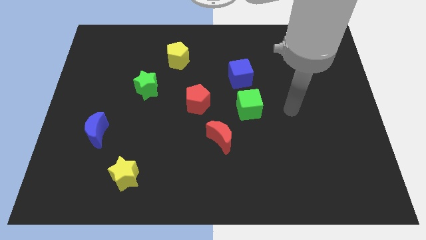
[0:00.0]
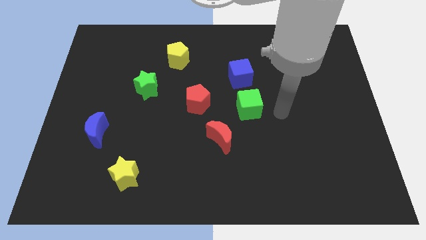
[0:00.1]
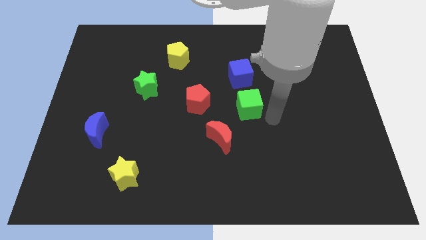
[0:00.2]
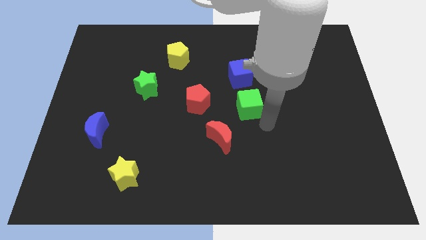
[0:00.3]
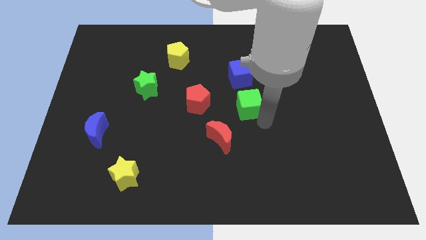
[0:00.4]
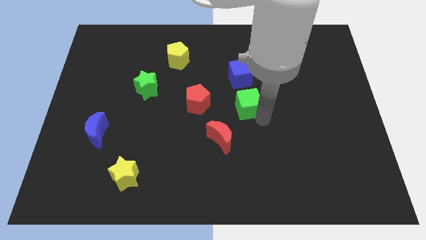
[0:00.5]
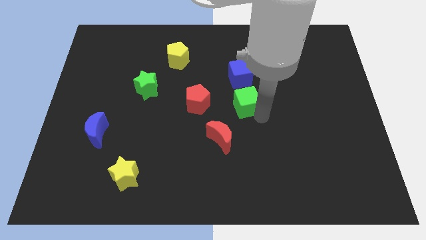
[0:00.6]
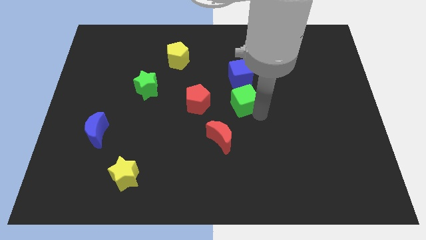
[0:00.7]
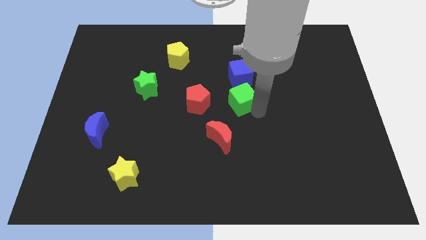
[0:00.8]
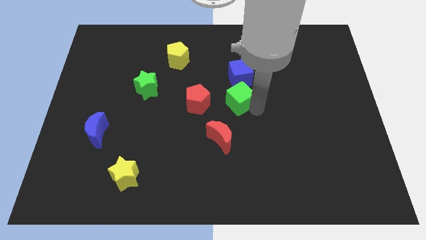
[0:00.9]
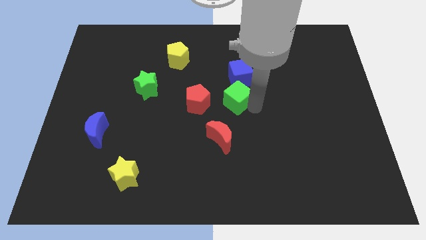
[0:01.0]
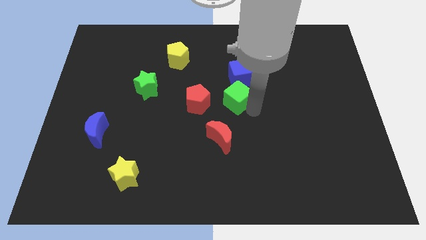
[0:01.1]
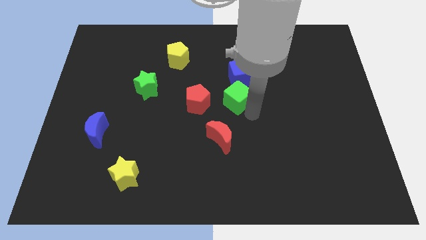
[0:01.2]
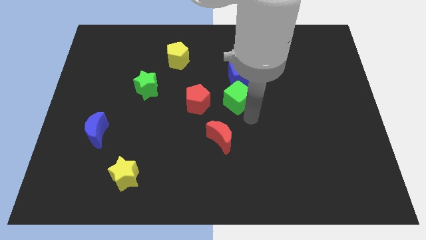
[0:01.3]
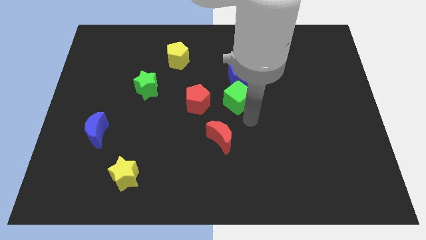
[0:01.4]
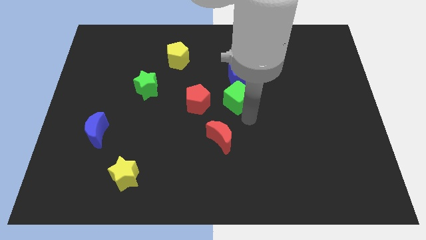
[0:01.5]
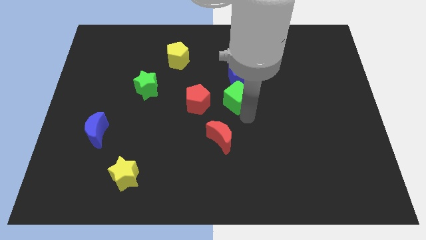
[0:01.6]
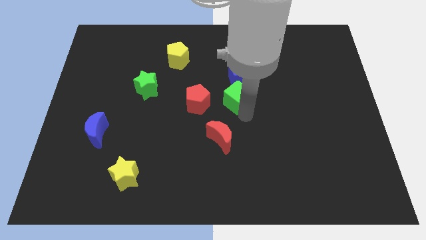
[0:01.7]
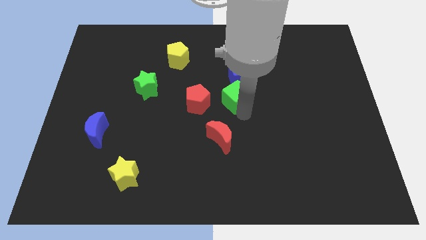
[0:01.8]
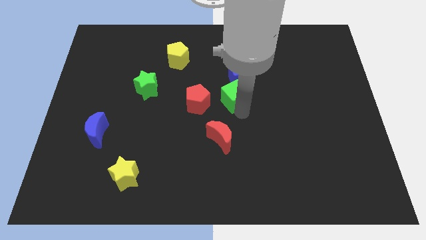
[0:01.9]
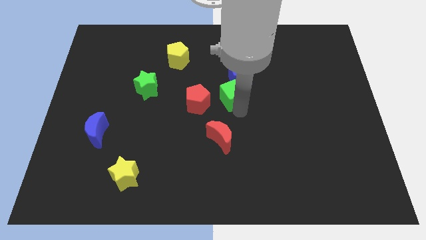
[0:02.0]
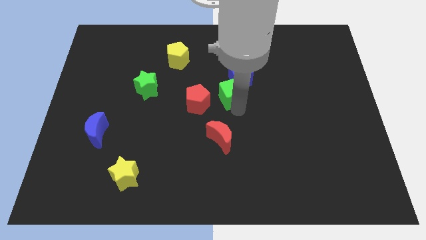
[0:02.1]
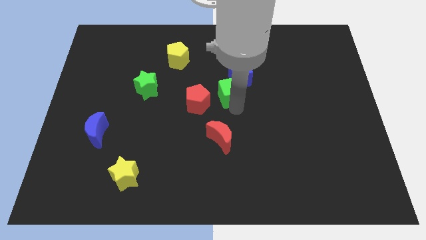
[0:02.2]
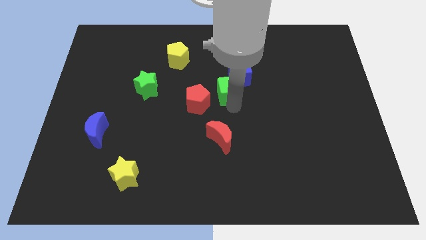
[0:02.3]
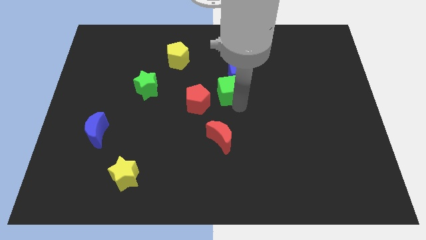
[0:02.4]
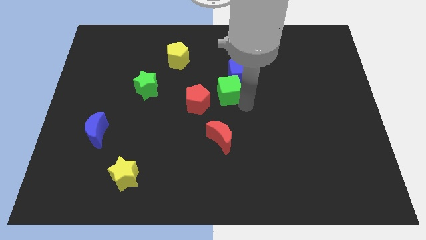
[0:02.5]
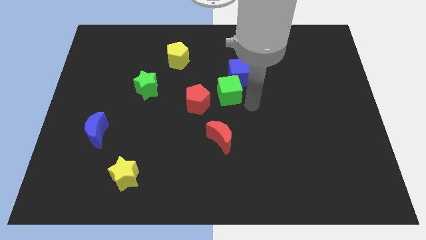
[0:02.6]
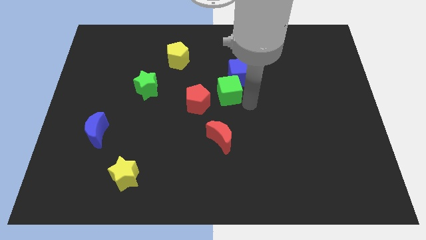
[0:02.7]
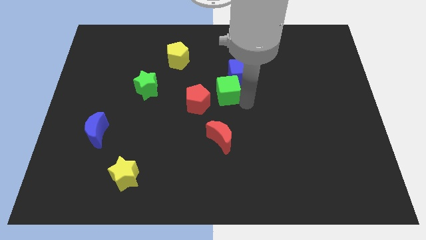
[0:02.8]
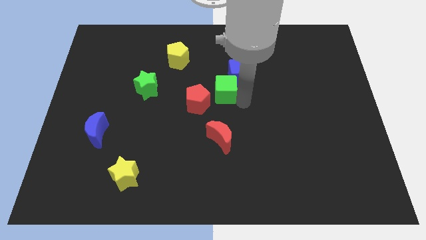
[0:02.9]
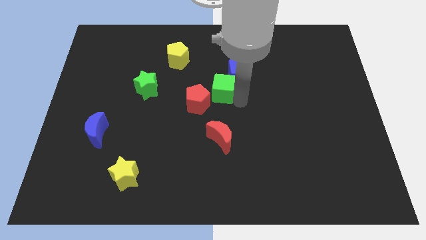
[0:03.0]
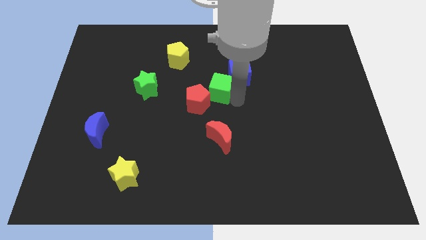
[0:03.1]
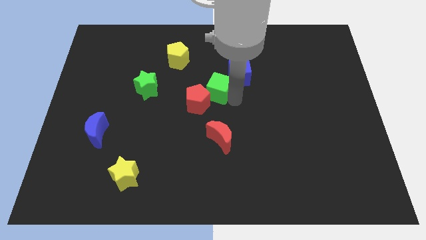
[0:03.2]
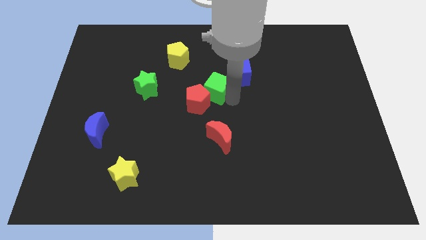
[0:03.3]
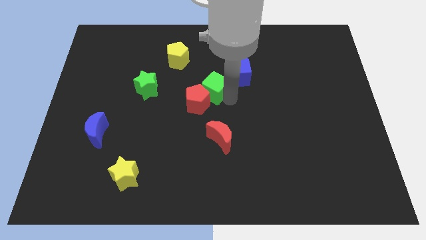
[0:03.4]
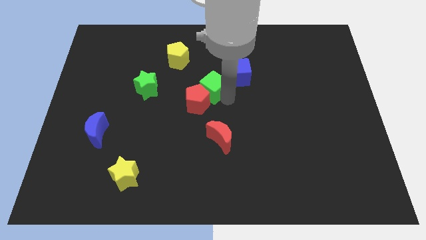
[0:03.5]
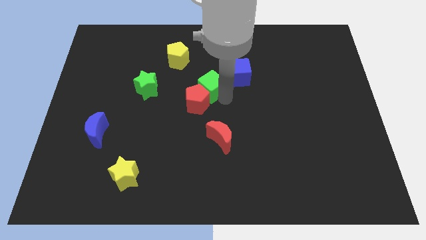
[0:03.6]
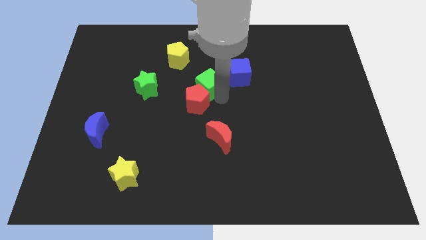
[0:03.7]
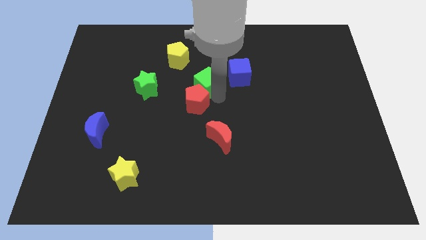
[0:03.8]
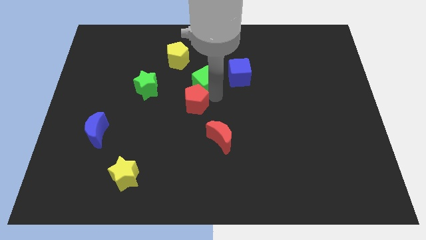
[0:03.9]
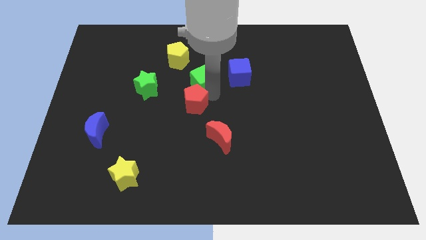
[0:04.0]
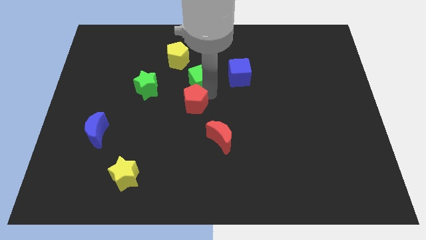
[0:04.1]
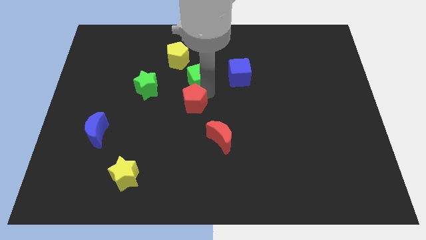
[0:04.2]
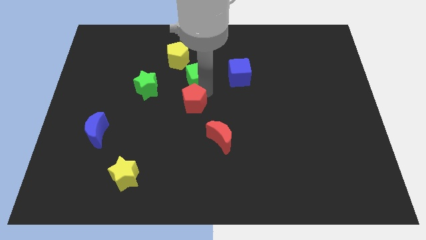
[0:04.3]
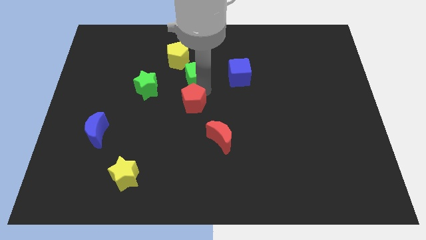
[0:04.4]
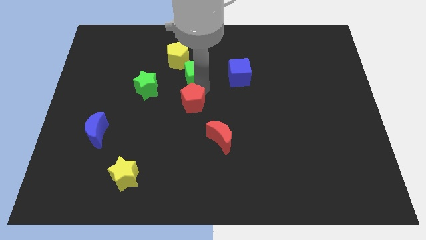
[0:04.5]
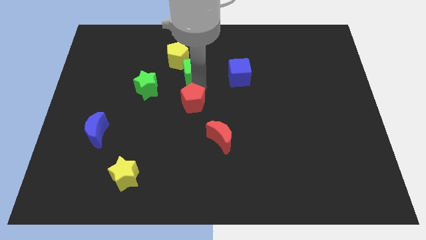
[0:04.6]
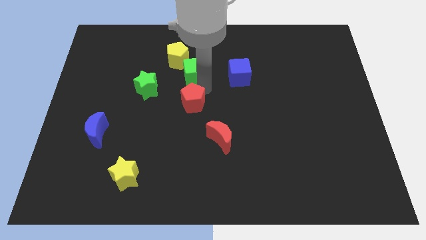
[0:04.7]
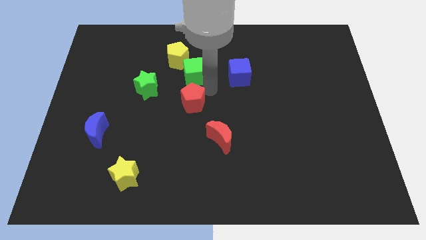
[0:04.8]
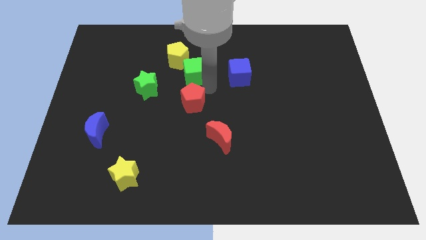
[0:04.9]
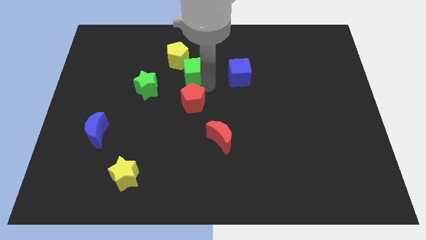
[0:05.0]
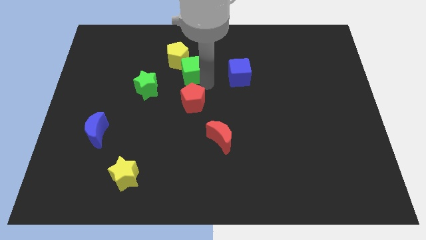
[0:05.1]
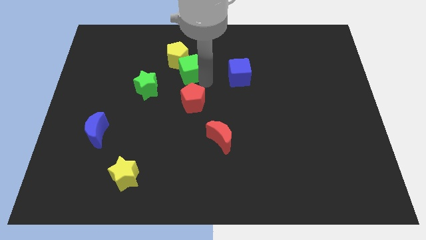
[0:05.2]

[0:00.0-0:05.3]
put the green cube next to the yellow pentagon

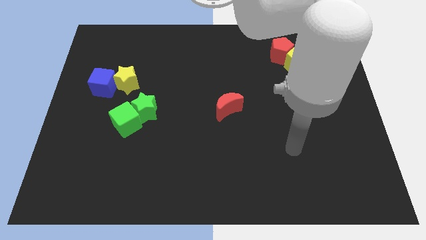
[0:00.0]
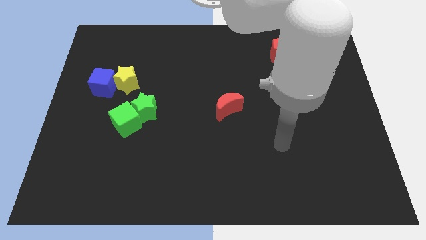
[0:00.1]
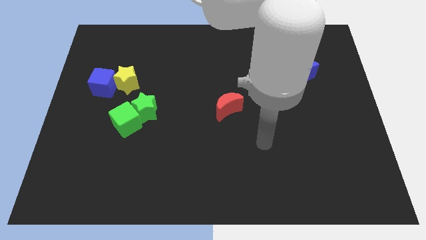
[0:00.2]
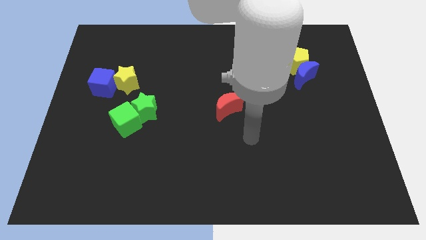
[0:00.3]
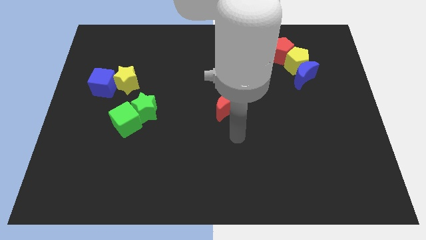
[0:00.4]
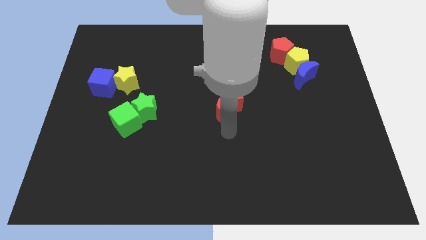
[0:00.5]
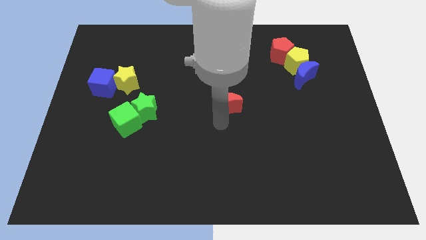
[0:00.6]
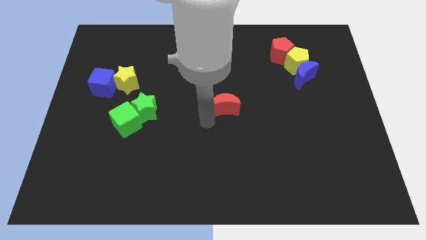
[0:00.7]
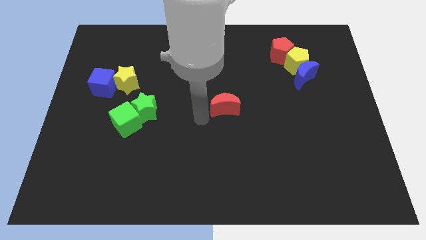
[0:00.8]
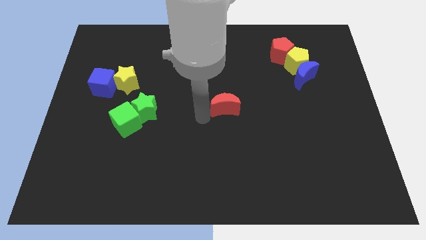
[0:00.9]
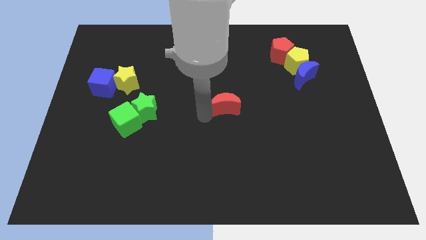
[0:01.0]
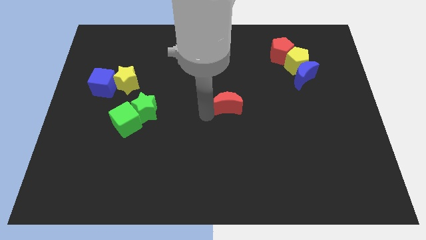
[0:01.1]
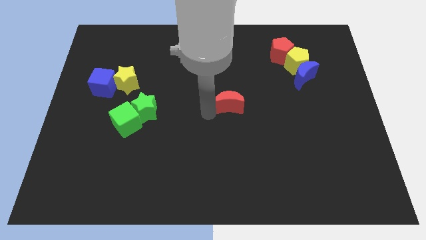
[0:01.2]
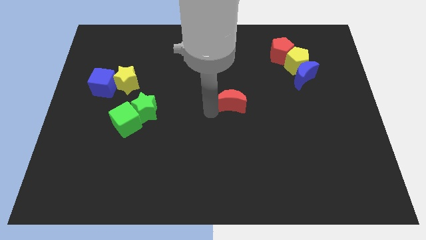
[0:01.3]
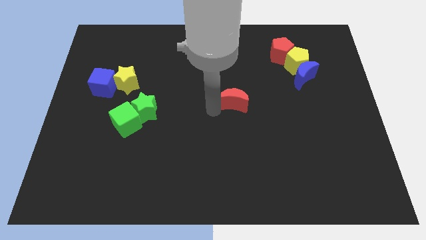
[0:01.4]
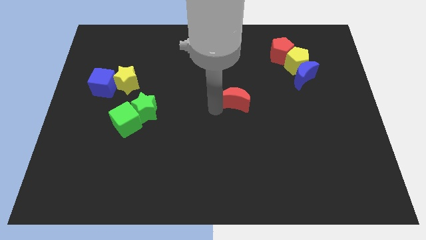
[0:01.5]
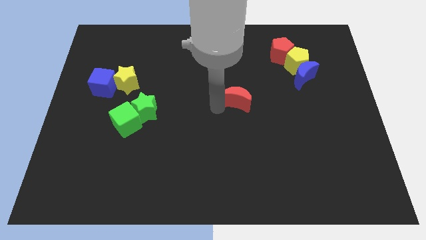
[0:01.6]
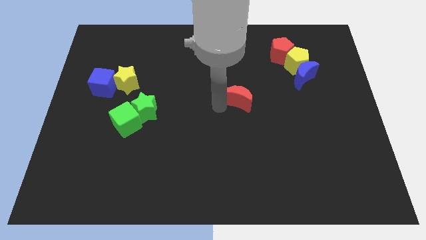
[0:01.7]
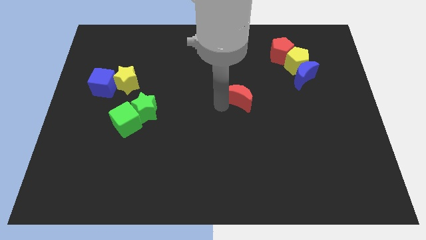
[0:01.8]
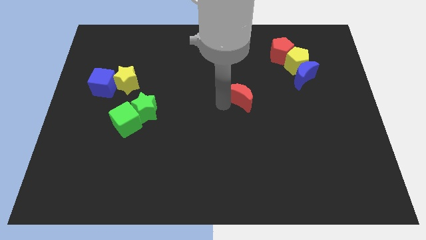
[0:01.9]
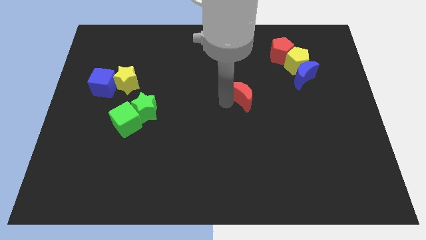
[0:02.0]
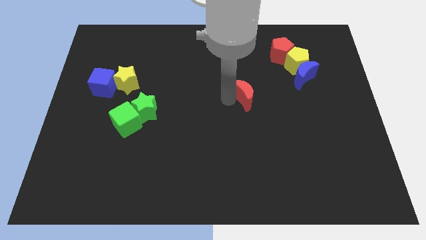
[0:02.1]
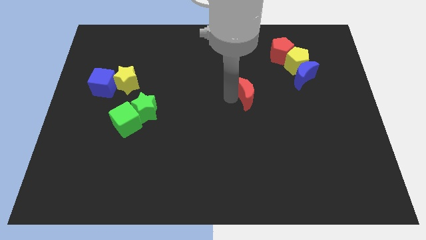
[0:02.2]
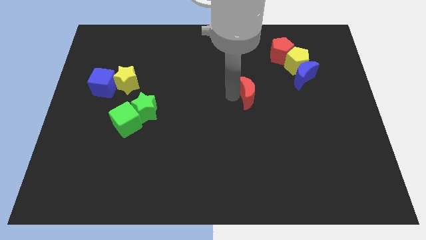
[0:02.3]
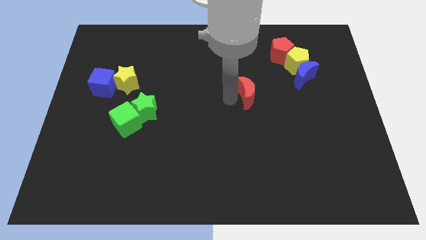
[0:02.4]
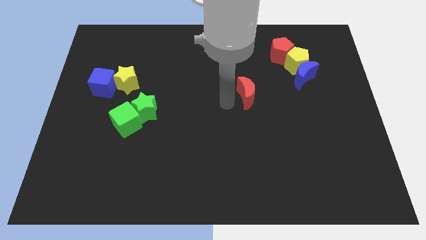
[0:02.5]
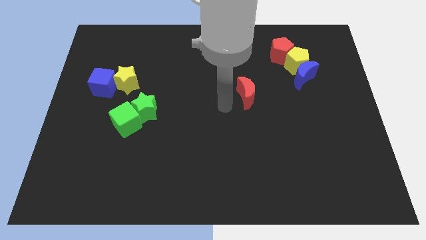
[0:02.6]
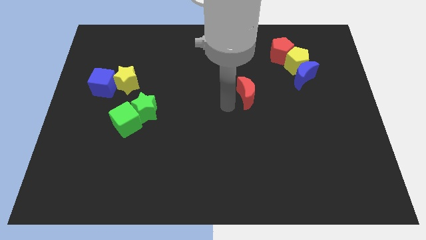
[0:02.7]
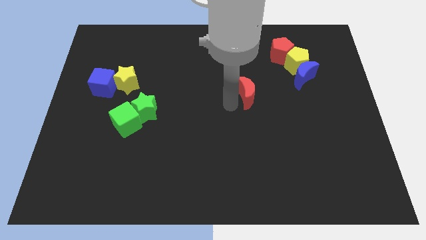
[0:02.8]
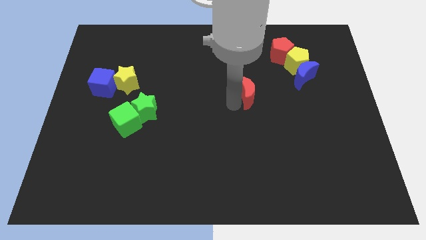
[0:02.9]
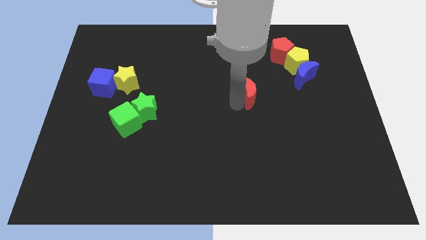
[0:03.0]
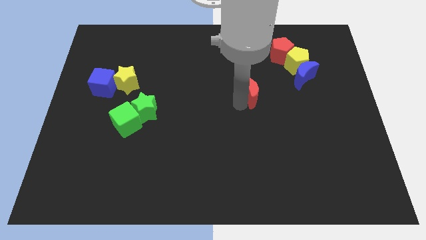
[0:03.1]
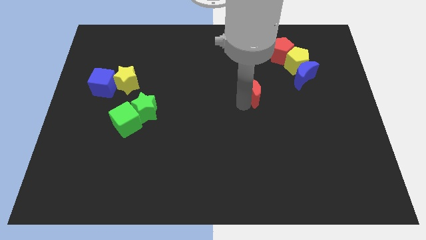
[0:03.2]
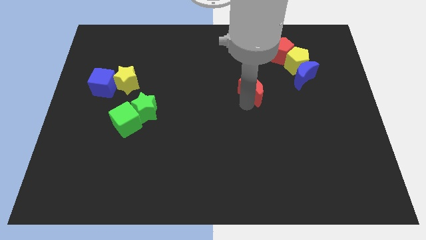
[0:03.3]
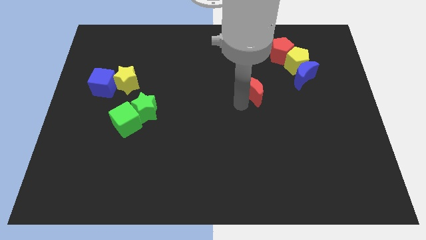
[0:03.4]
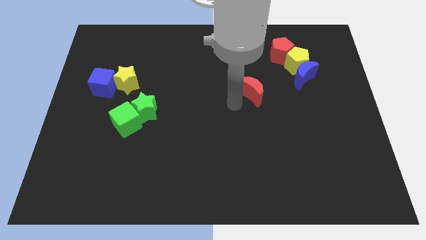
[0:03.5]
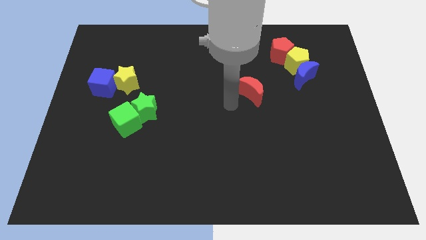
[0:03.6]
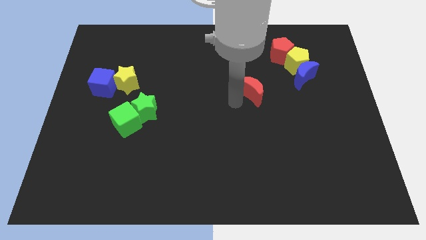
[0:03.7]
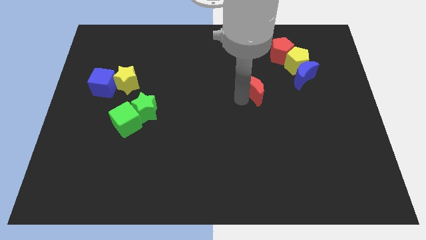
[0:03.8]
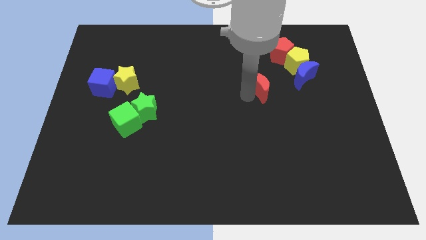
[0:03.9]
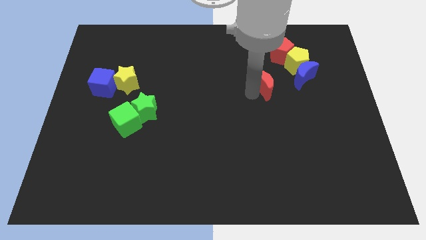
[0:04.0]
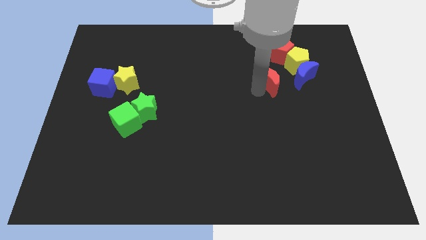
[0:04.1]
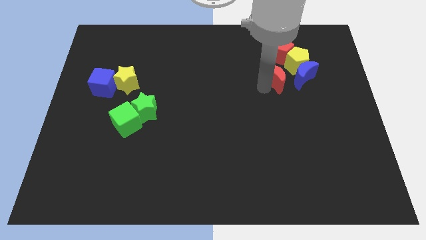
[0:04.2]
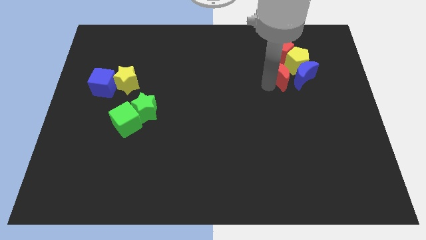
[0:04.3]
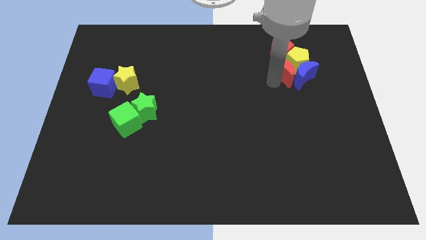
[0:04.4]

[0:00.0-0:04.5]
slide the red moon close to the yellow pentagon
